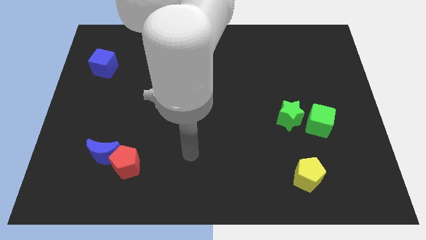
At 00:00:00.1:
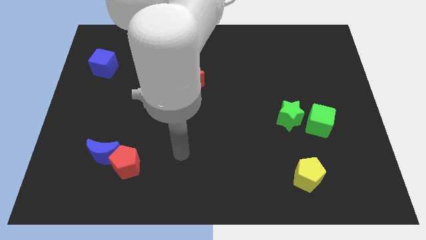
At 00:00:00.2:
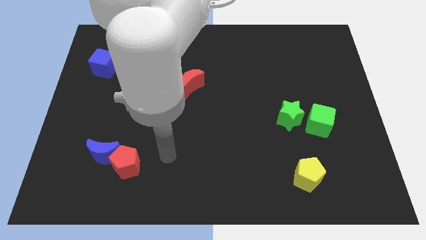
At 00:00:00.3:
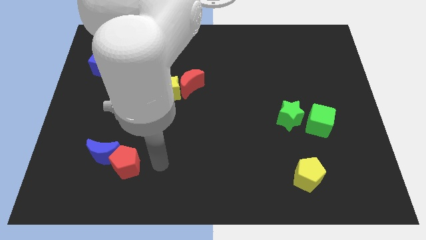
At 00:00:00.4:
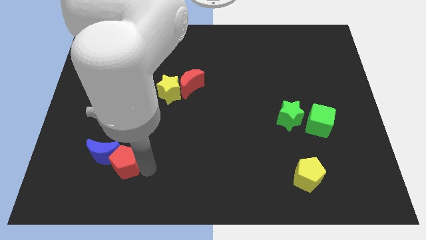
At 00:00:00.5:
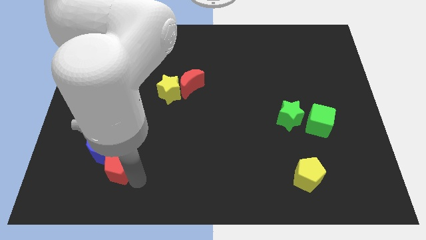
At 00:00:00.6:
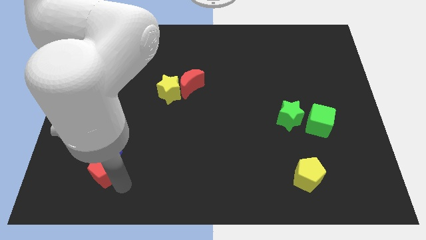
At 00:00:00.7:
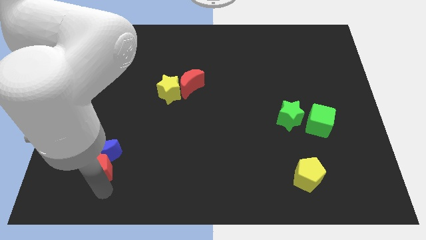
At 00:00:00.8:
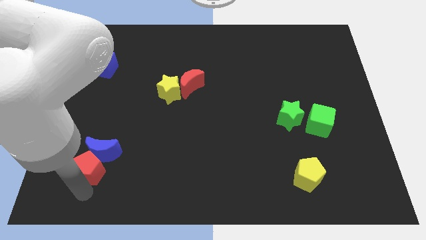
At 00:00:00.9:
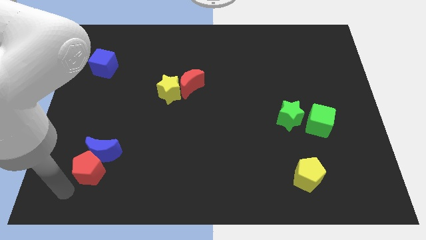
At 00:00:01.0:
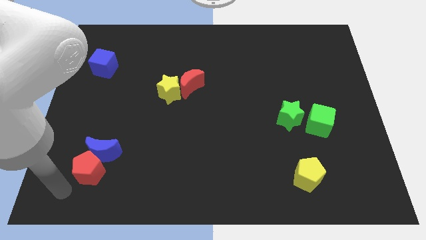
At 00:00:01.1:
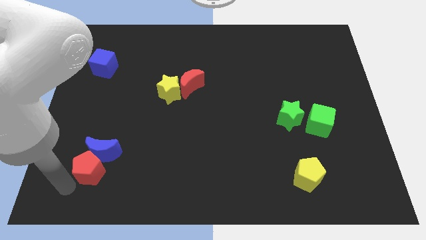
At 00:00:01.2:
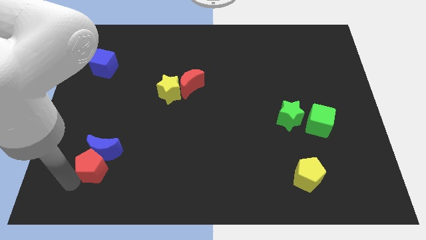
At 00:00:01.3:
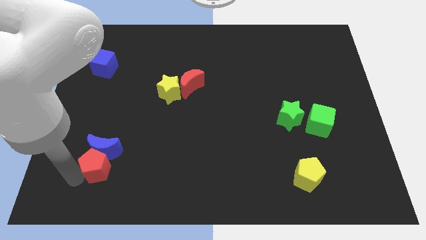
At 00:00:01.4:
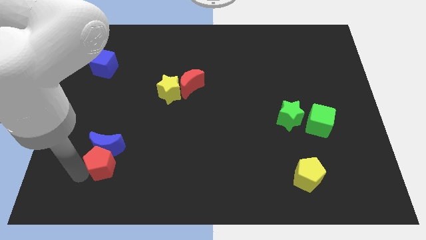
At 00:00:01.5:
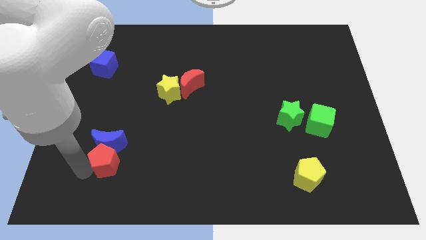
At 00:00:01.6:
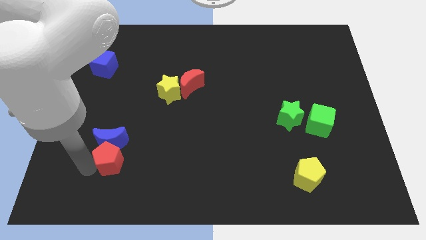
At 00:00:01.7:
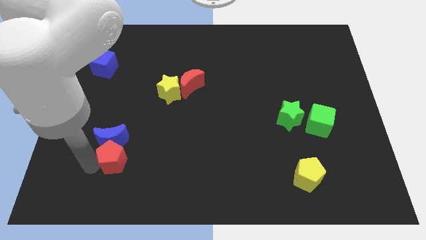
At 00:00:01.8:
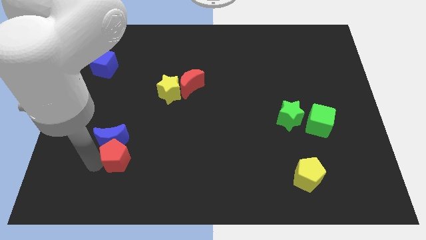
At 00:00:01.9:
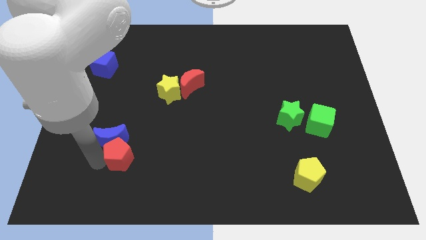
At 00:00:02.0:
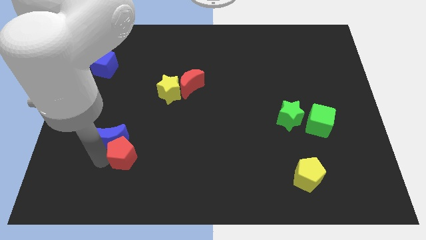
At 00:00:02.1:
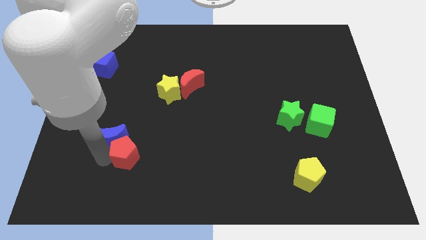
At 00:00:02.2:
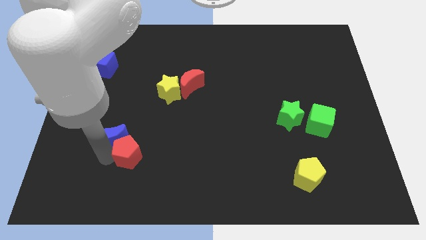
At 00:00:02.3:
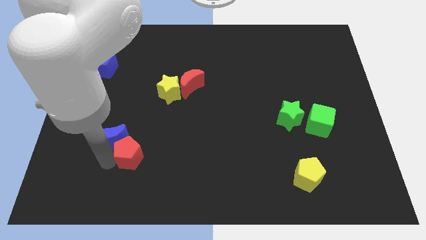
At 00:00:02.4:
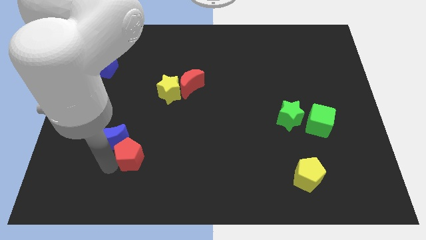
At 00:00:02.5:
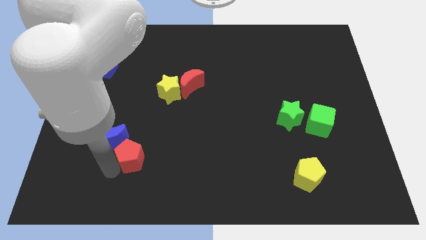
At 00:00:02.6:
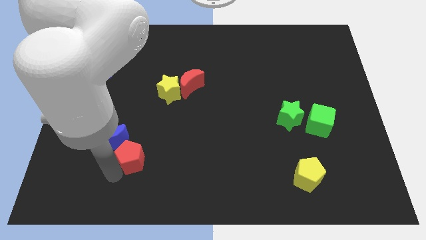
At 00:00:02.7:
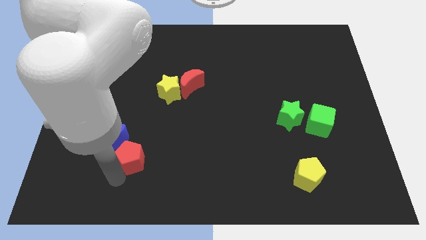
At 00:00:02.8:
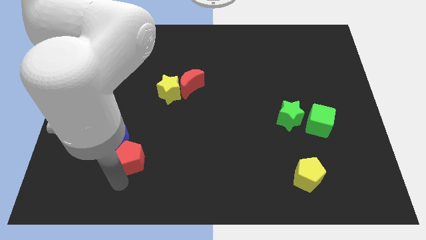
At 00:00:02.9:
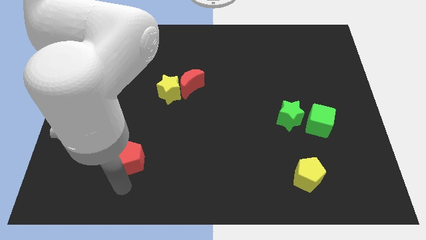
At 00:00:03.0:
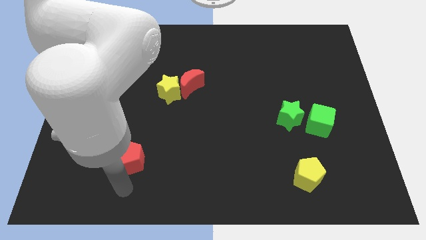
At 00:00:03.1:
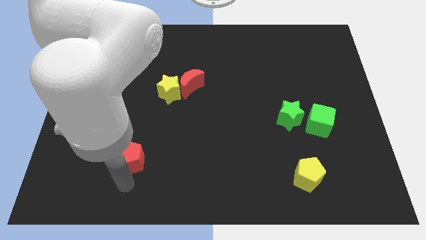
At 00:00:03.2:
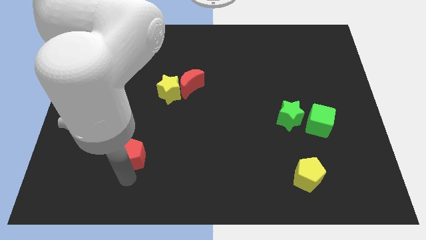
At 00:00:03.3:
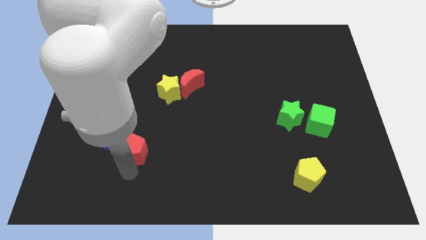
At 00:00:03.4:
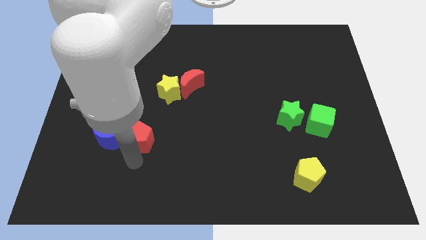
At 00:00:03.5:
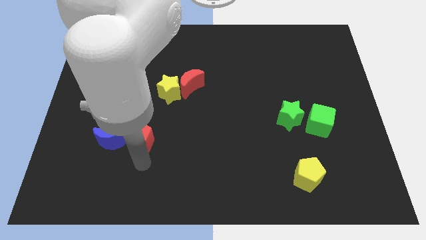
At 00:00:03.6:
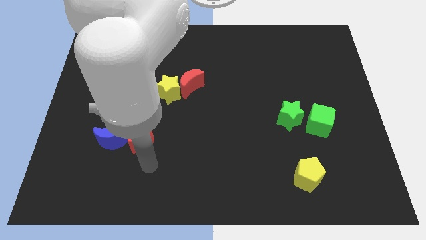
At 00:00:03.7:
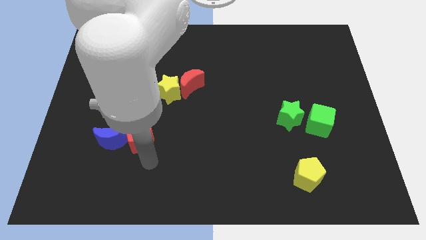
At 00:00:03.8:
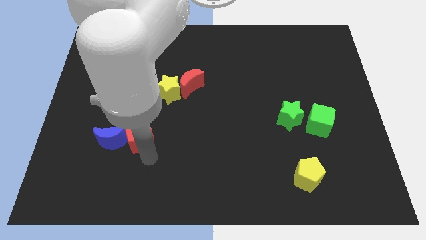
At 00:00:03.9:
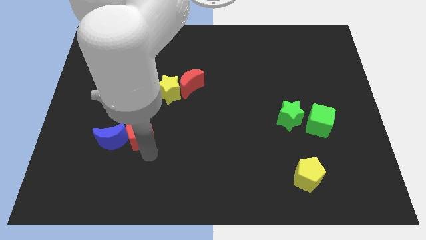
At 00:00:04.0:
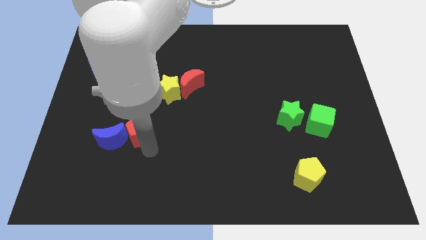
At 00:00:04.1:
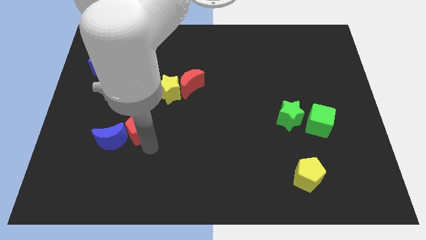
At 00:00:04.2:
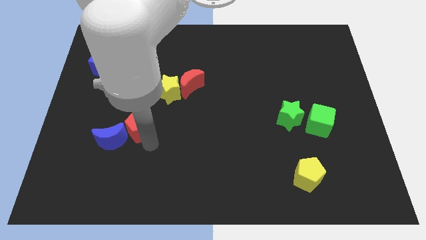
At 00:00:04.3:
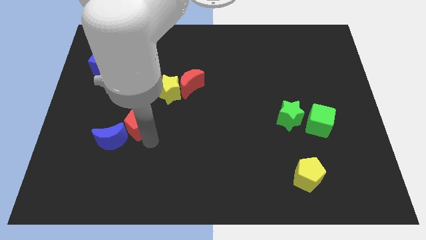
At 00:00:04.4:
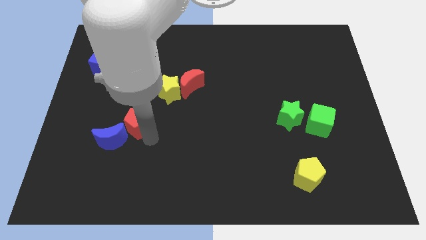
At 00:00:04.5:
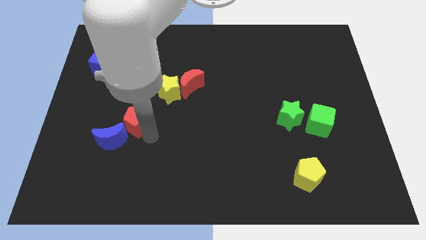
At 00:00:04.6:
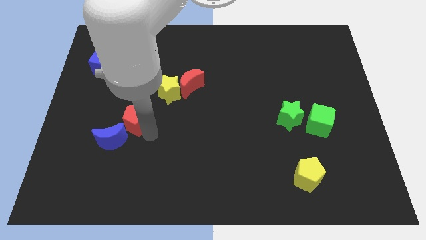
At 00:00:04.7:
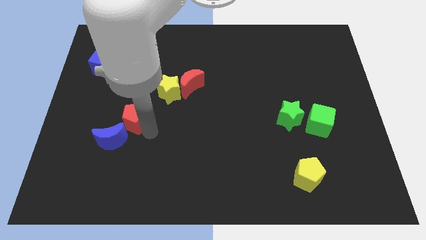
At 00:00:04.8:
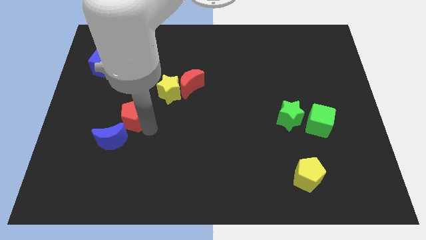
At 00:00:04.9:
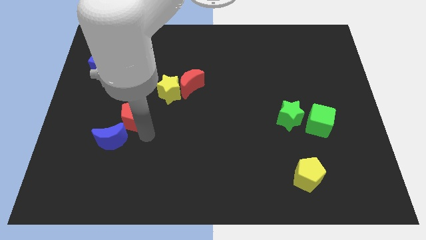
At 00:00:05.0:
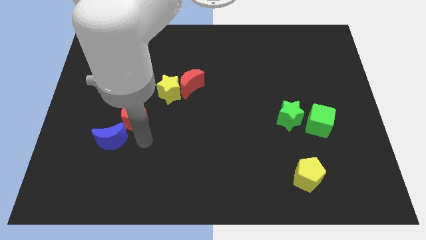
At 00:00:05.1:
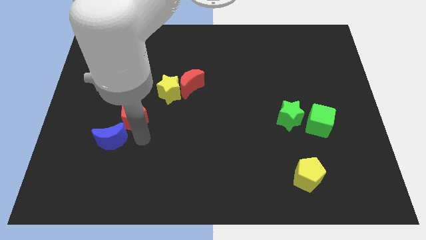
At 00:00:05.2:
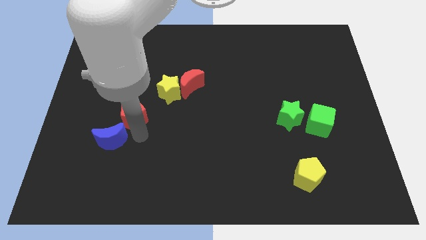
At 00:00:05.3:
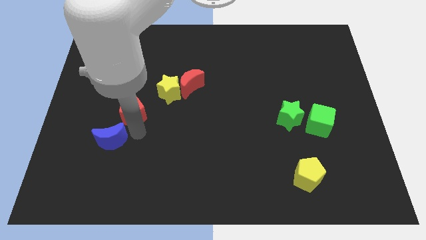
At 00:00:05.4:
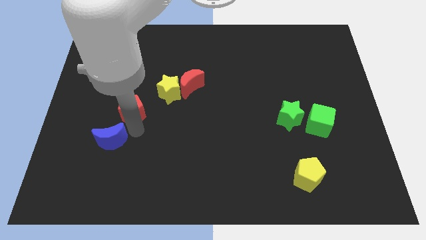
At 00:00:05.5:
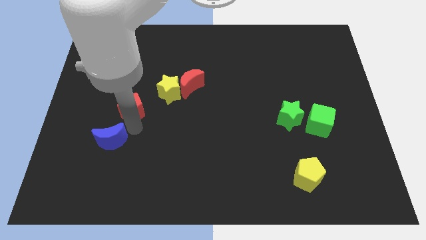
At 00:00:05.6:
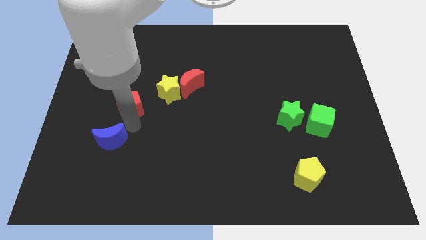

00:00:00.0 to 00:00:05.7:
push the red pentagon left of the yellow star

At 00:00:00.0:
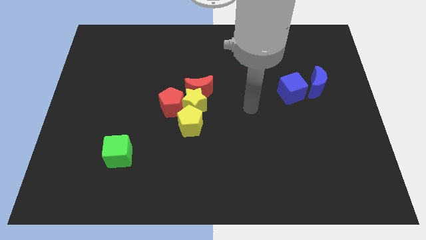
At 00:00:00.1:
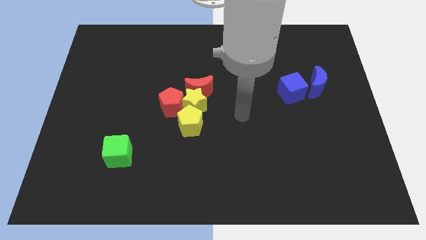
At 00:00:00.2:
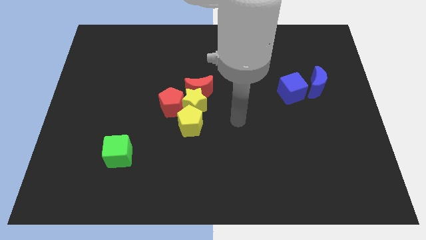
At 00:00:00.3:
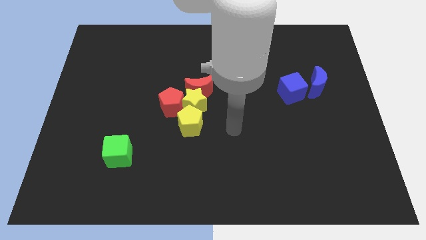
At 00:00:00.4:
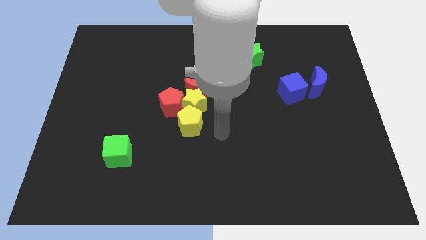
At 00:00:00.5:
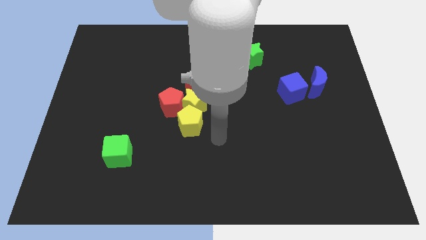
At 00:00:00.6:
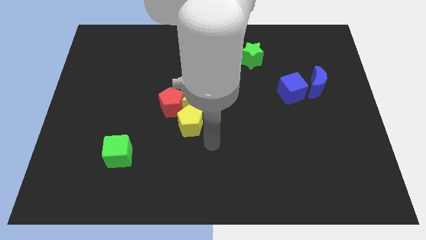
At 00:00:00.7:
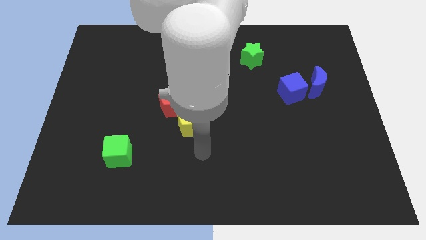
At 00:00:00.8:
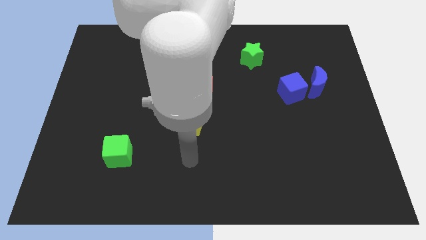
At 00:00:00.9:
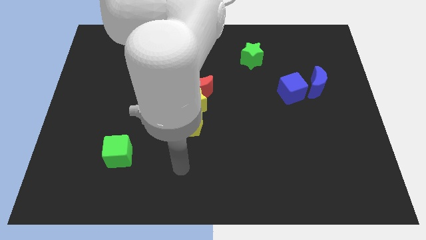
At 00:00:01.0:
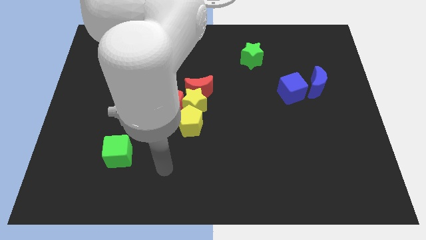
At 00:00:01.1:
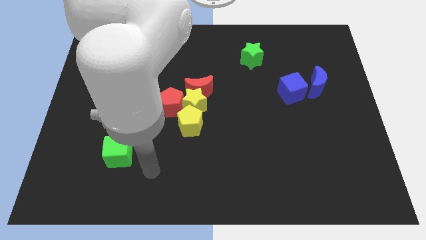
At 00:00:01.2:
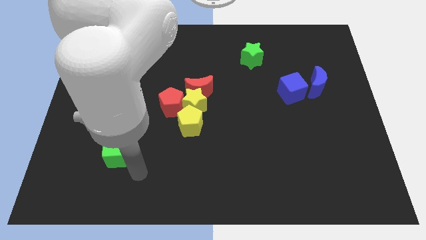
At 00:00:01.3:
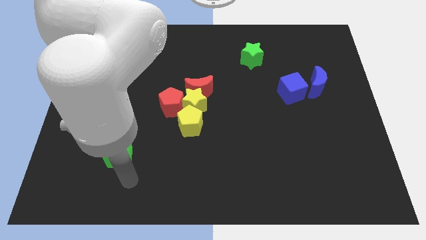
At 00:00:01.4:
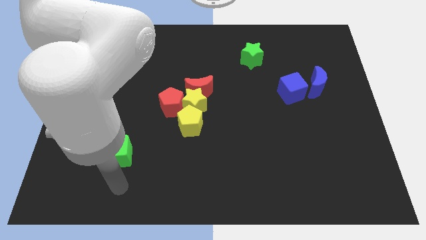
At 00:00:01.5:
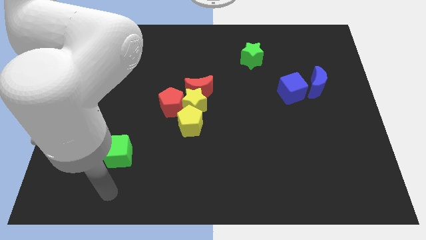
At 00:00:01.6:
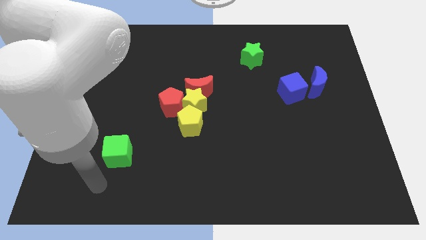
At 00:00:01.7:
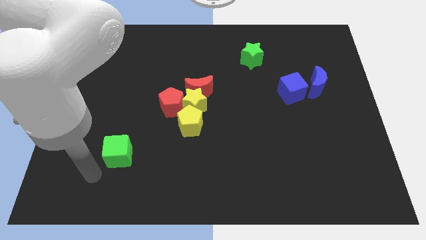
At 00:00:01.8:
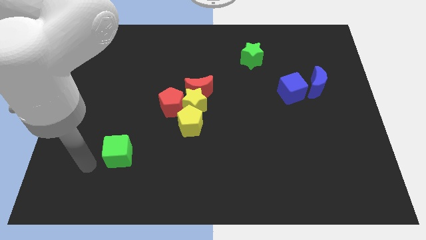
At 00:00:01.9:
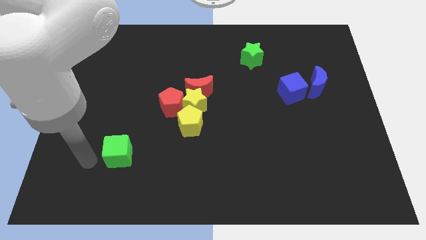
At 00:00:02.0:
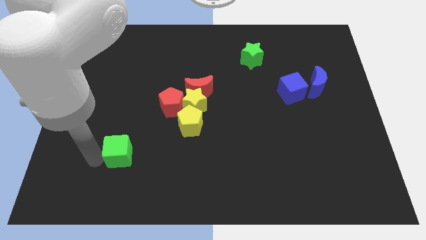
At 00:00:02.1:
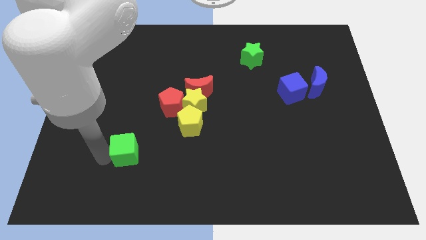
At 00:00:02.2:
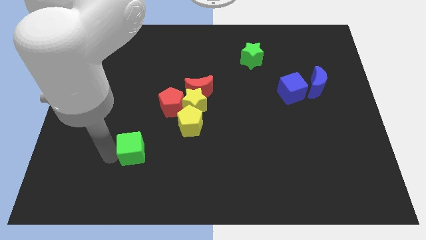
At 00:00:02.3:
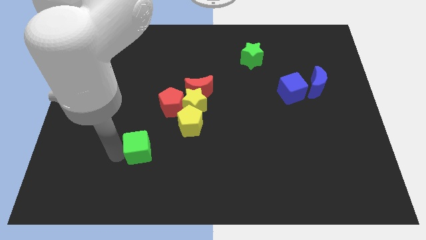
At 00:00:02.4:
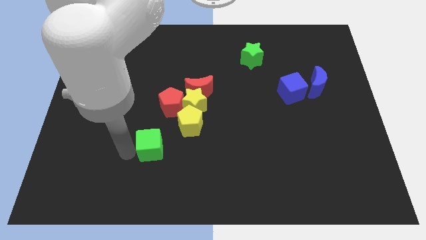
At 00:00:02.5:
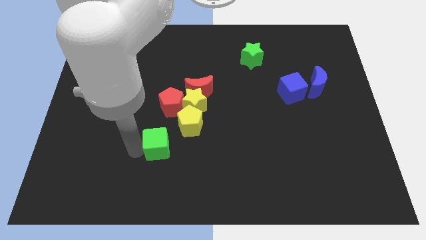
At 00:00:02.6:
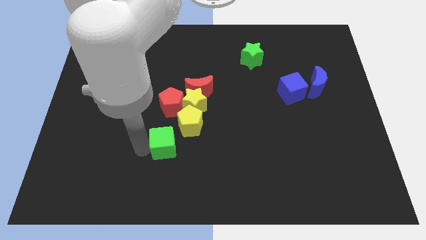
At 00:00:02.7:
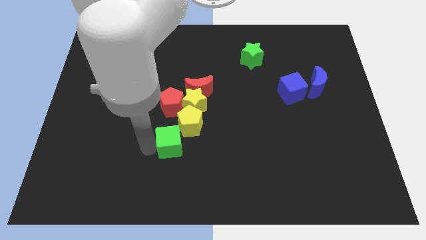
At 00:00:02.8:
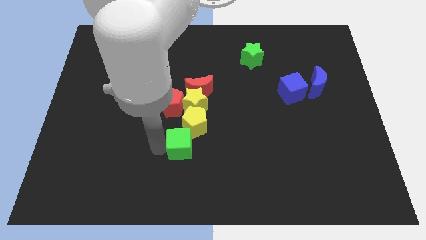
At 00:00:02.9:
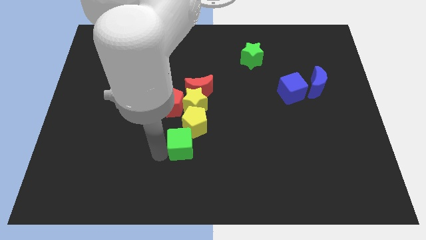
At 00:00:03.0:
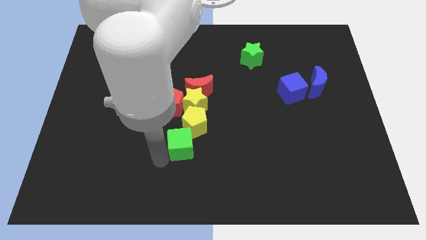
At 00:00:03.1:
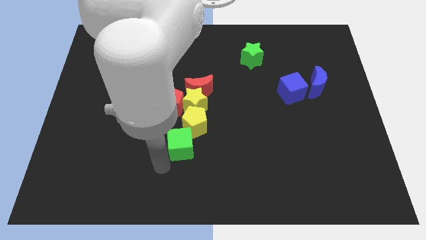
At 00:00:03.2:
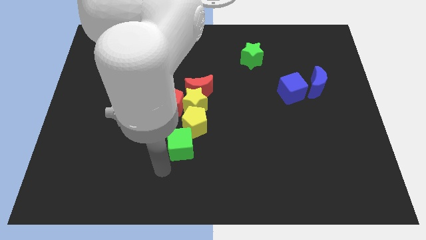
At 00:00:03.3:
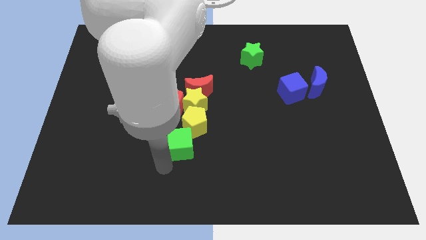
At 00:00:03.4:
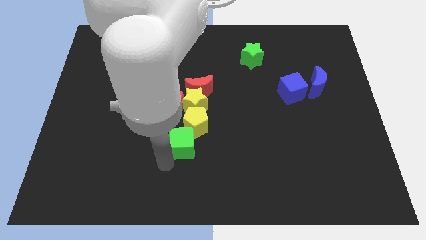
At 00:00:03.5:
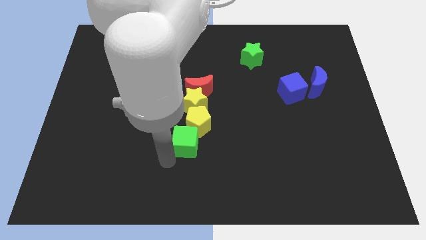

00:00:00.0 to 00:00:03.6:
put the green cube to the bottom side of the red moon
